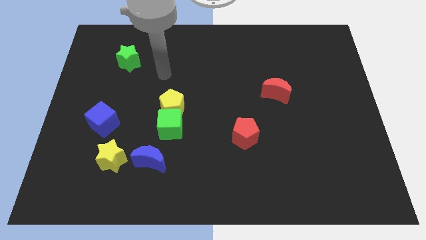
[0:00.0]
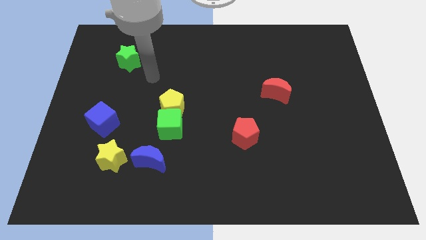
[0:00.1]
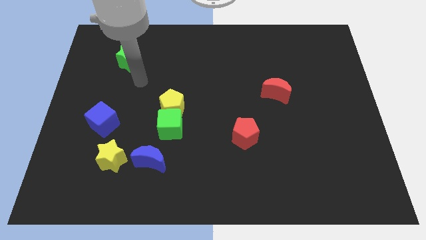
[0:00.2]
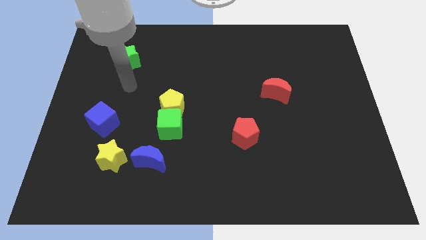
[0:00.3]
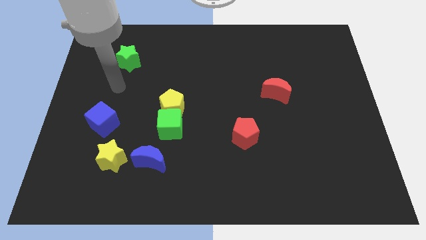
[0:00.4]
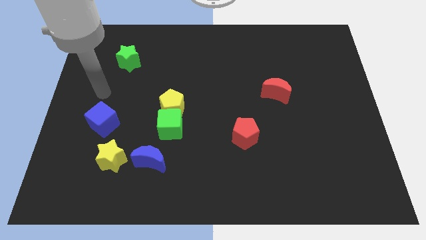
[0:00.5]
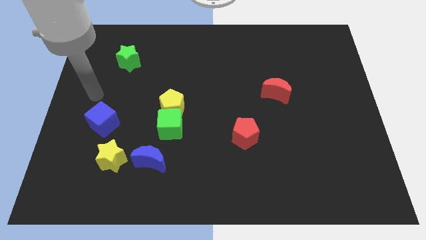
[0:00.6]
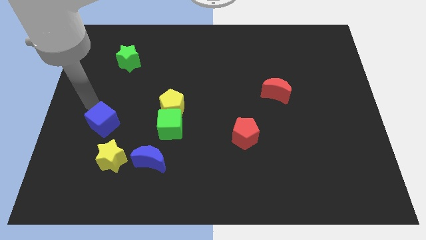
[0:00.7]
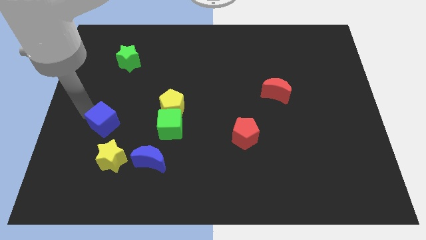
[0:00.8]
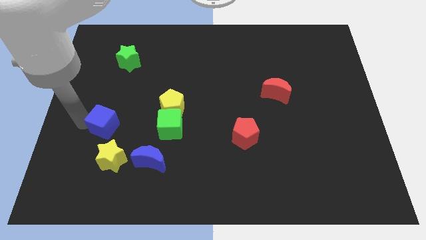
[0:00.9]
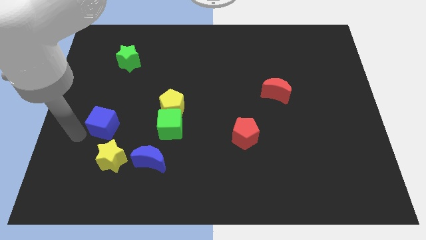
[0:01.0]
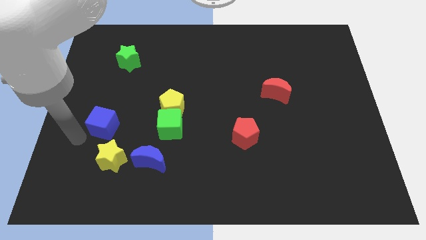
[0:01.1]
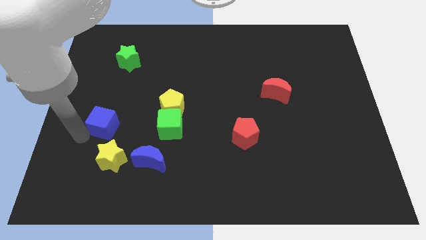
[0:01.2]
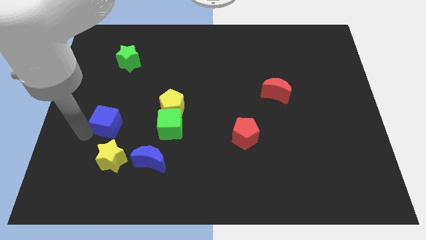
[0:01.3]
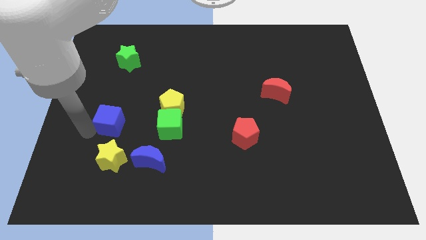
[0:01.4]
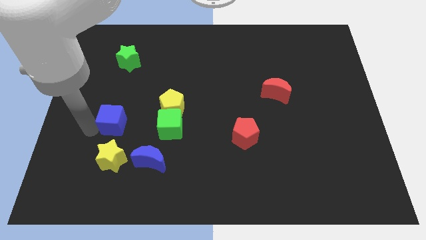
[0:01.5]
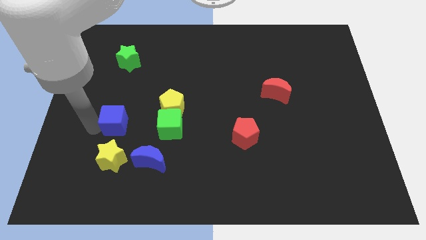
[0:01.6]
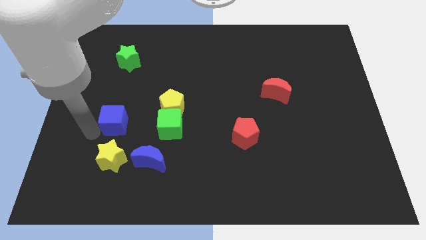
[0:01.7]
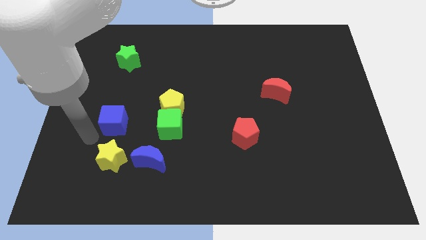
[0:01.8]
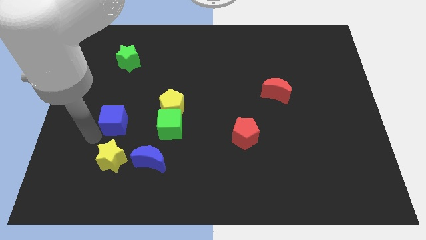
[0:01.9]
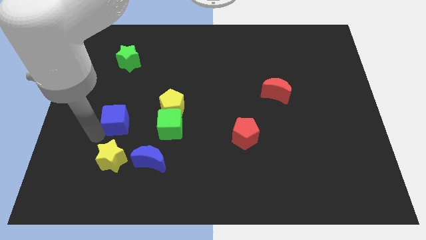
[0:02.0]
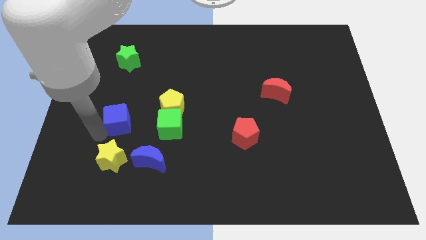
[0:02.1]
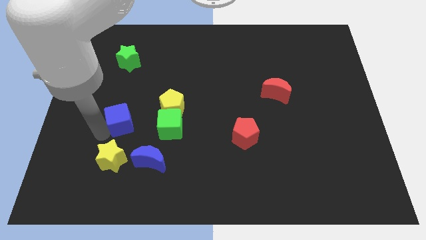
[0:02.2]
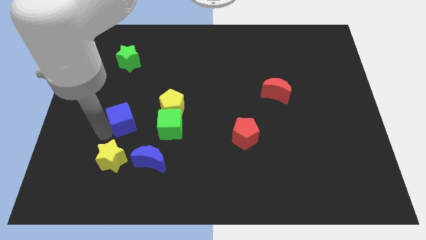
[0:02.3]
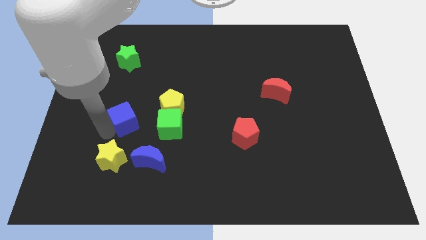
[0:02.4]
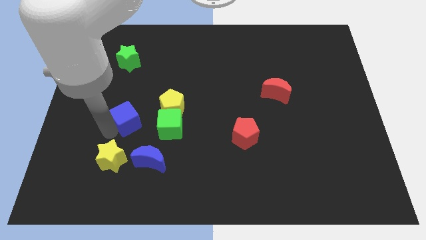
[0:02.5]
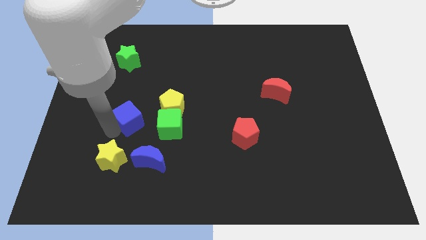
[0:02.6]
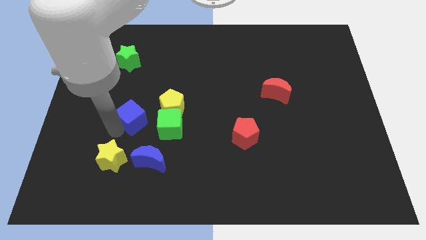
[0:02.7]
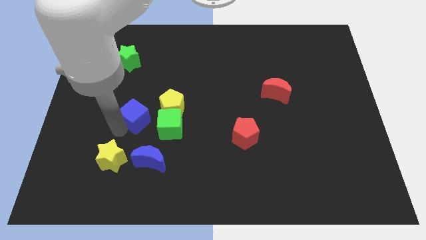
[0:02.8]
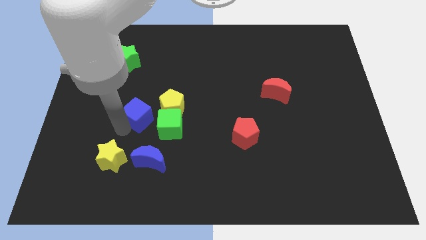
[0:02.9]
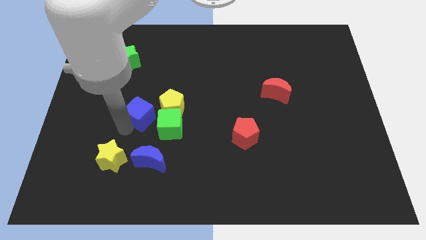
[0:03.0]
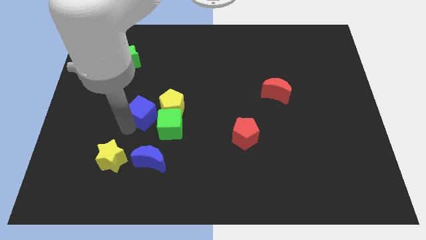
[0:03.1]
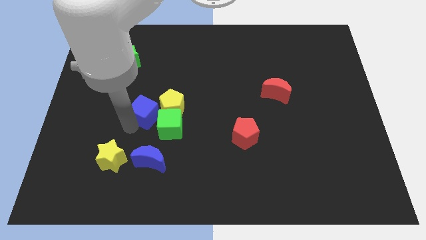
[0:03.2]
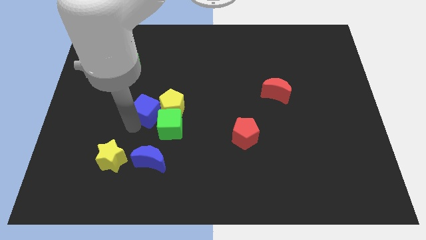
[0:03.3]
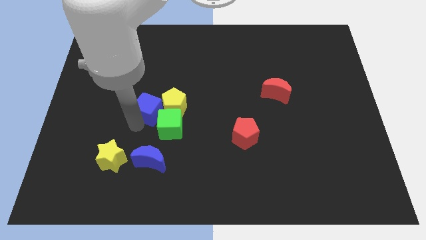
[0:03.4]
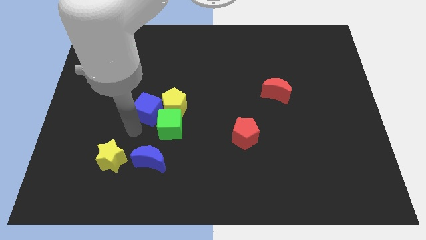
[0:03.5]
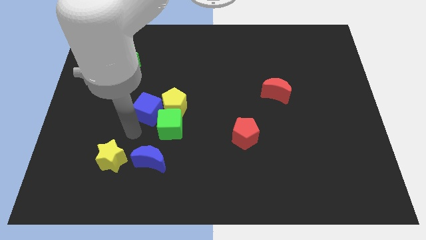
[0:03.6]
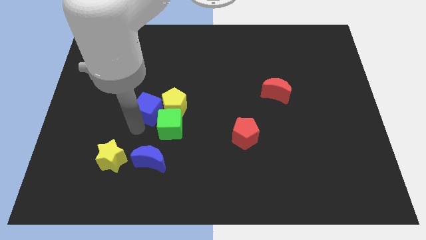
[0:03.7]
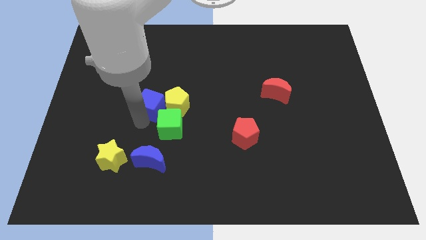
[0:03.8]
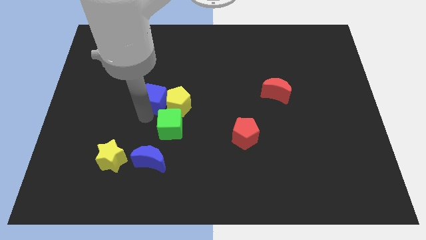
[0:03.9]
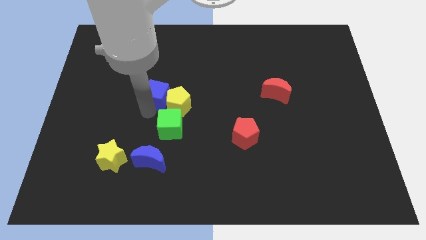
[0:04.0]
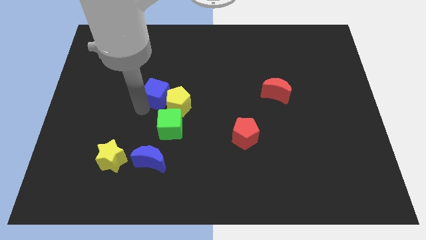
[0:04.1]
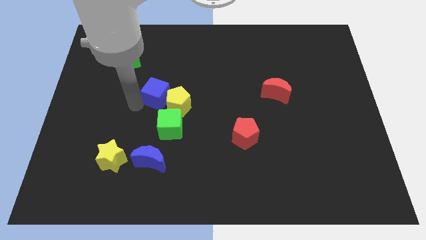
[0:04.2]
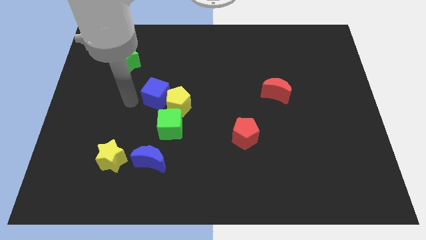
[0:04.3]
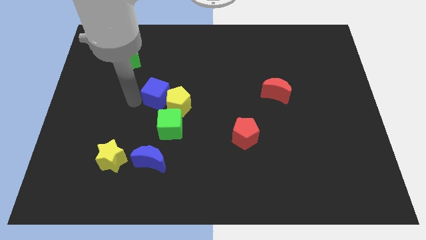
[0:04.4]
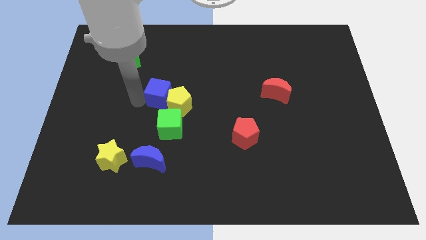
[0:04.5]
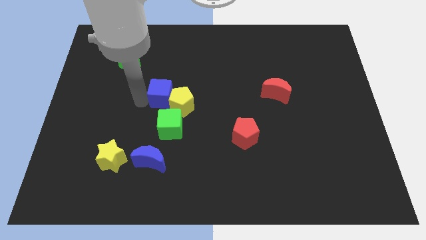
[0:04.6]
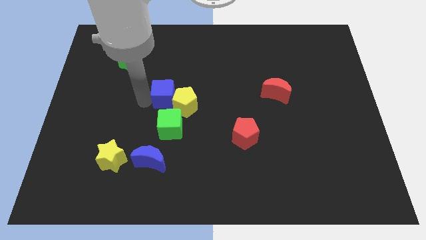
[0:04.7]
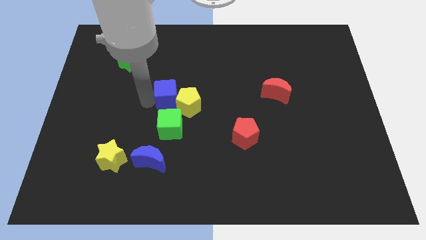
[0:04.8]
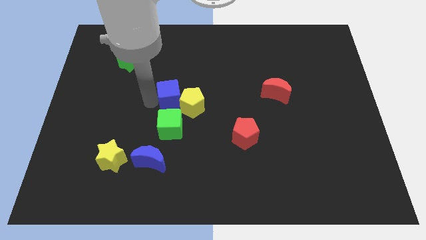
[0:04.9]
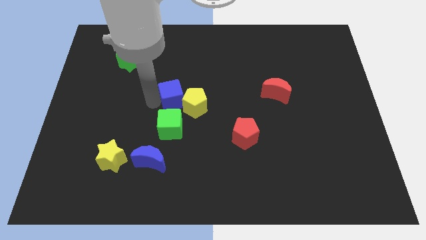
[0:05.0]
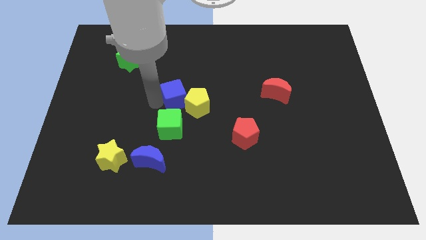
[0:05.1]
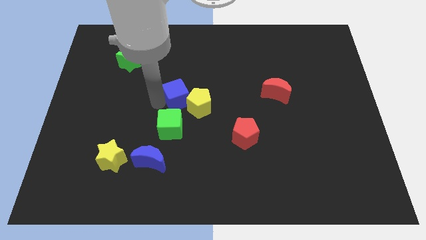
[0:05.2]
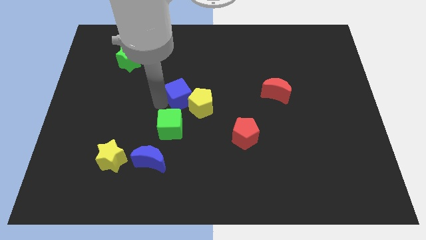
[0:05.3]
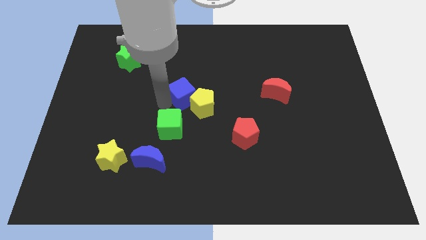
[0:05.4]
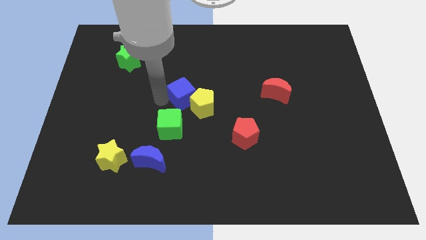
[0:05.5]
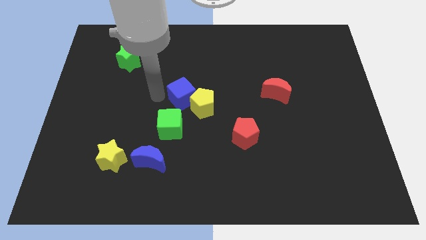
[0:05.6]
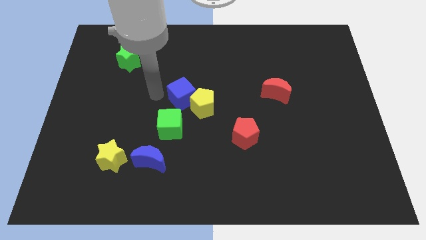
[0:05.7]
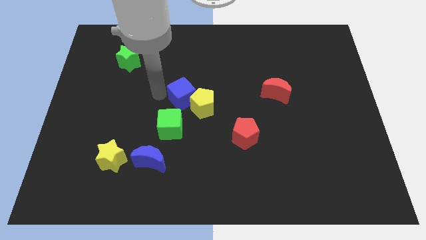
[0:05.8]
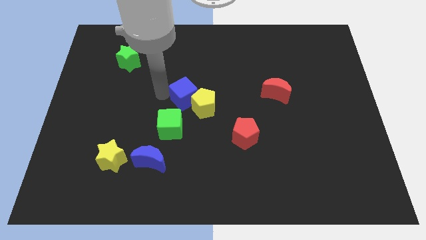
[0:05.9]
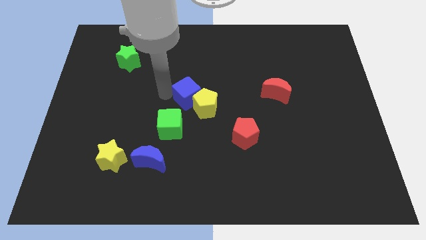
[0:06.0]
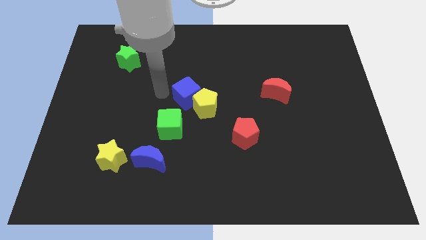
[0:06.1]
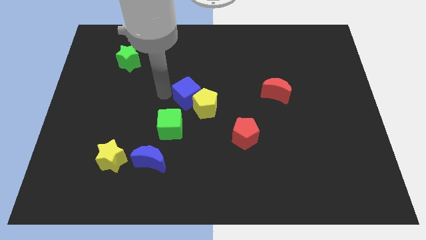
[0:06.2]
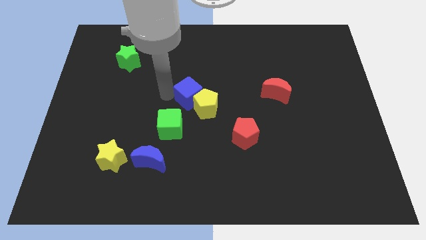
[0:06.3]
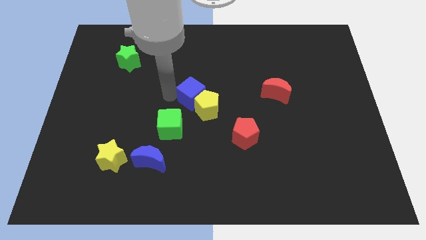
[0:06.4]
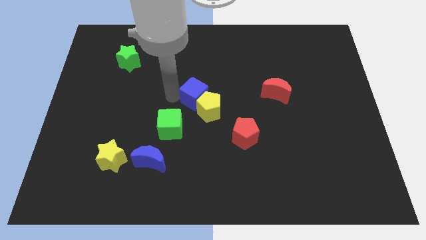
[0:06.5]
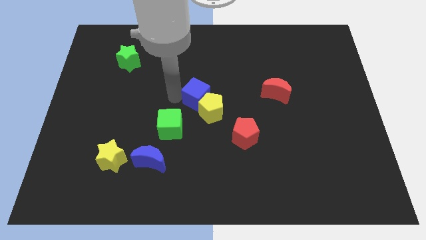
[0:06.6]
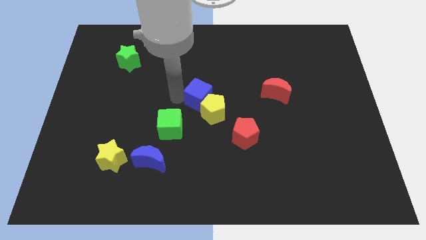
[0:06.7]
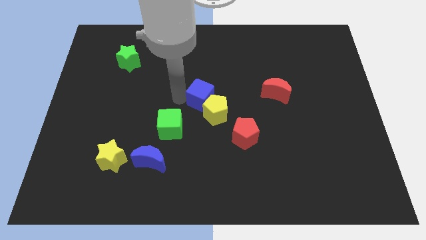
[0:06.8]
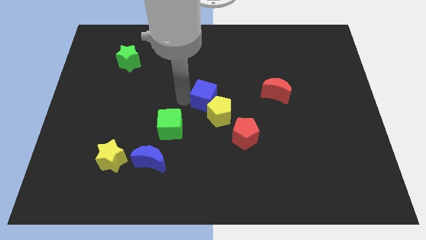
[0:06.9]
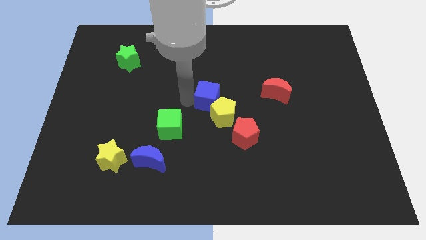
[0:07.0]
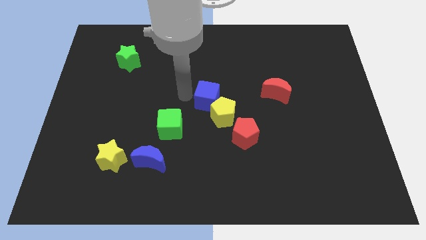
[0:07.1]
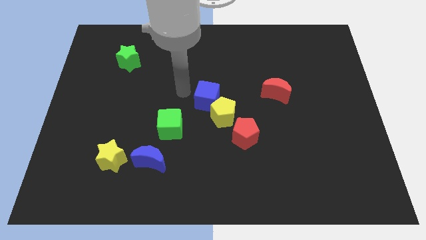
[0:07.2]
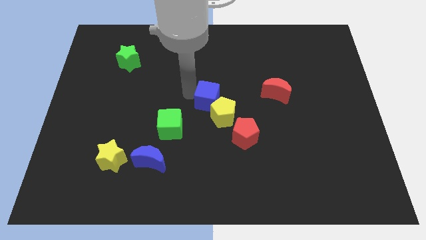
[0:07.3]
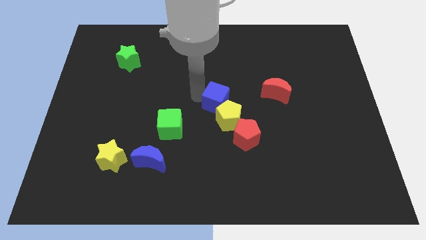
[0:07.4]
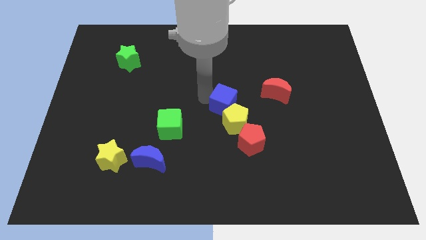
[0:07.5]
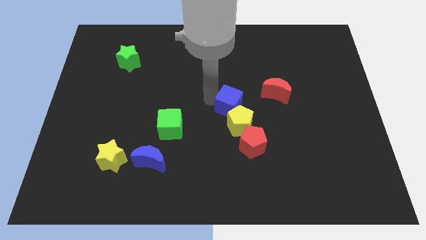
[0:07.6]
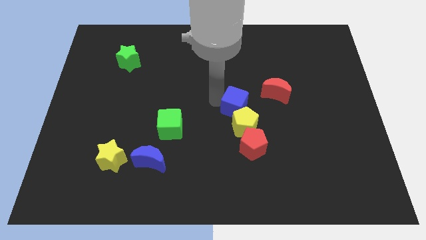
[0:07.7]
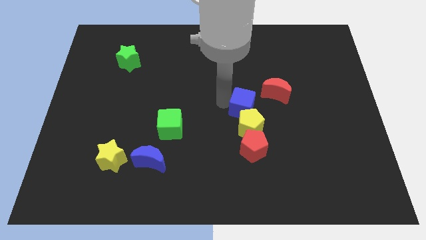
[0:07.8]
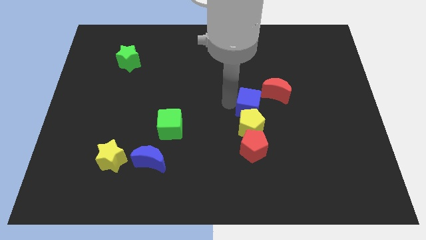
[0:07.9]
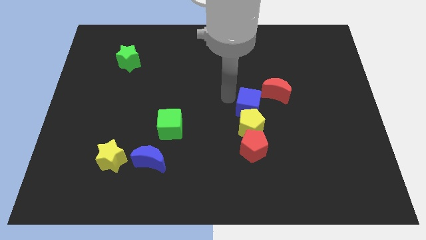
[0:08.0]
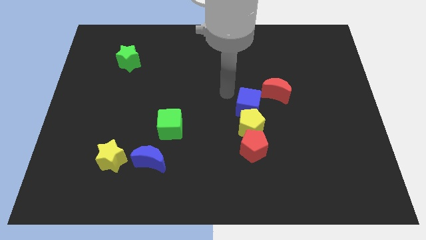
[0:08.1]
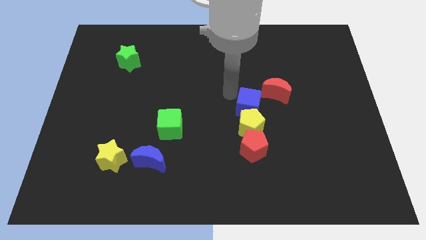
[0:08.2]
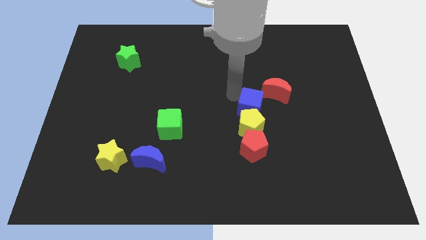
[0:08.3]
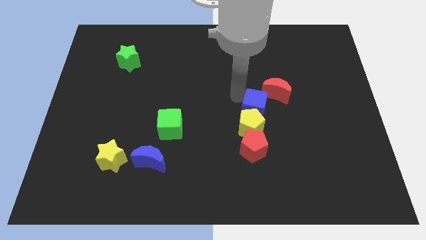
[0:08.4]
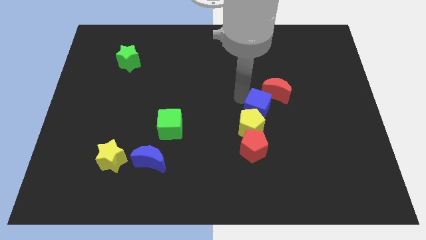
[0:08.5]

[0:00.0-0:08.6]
put the blue cube below the red moon
